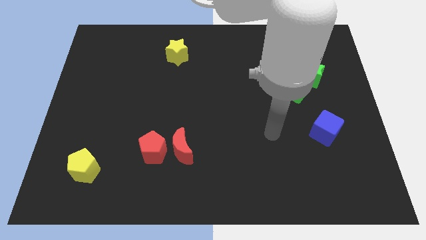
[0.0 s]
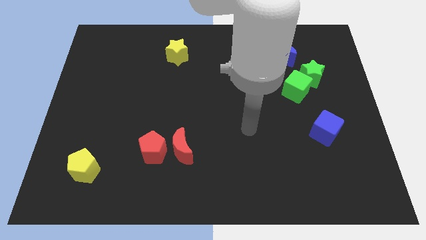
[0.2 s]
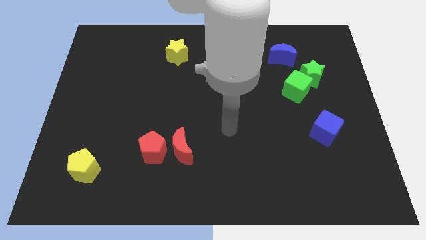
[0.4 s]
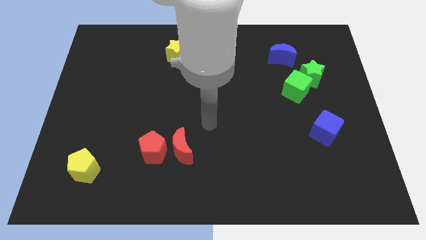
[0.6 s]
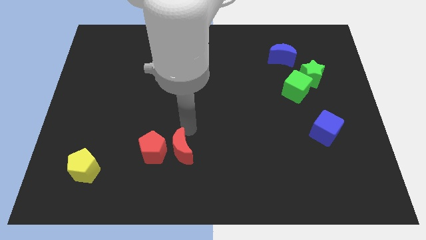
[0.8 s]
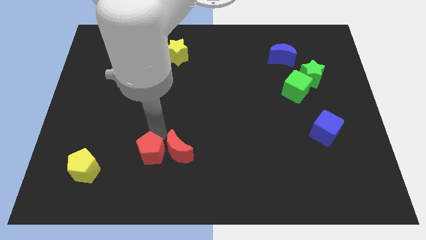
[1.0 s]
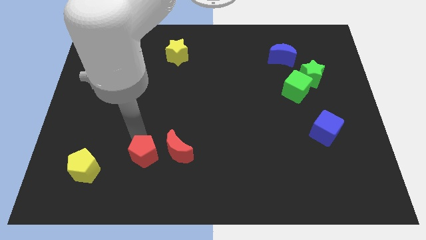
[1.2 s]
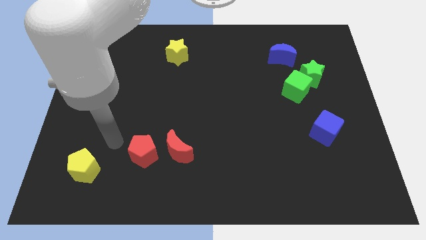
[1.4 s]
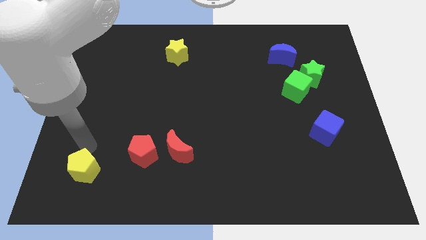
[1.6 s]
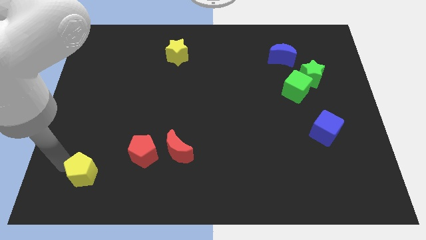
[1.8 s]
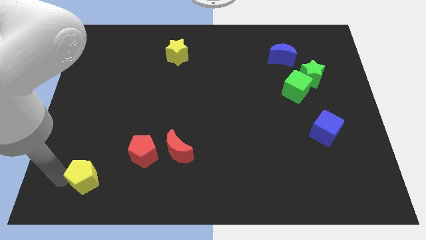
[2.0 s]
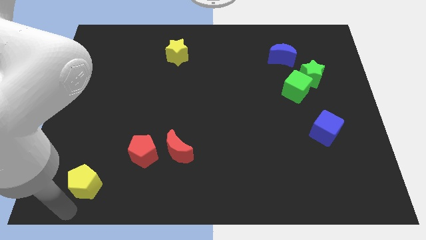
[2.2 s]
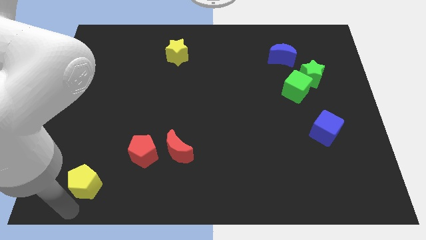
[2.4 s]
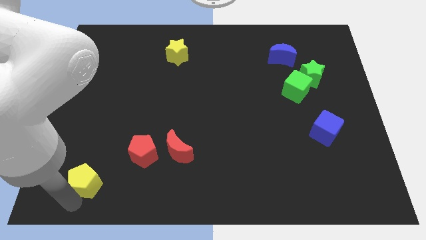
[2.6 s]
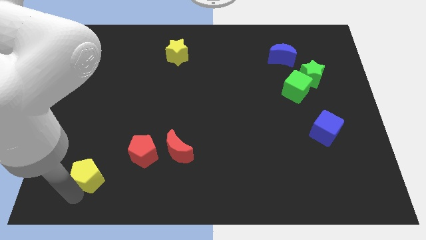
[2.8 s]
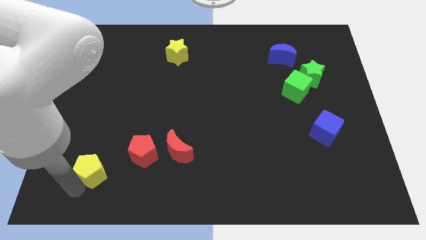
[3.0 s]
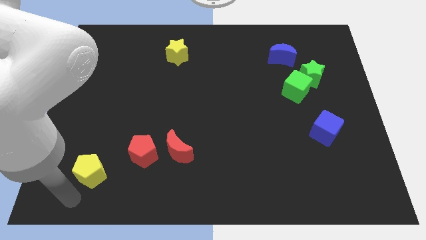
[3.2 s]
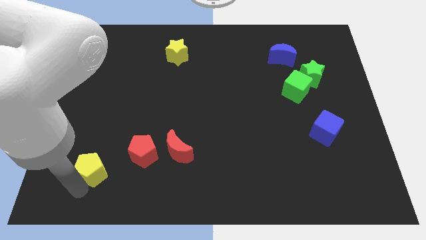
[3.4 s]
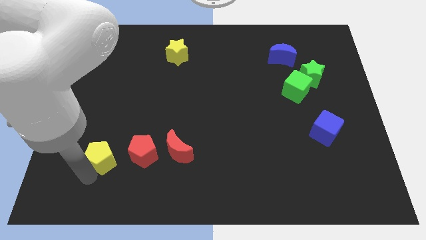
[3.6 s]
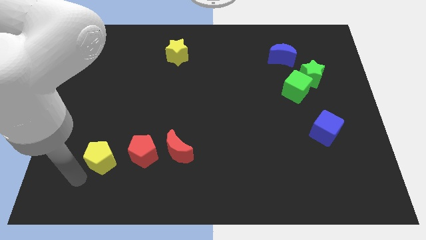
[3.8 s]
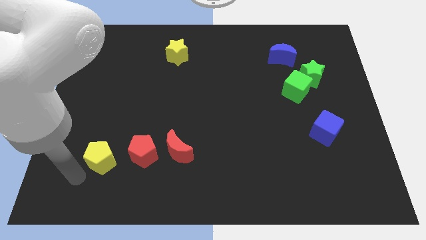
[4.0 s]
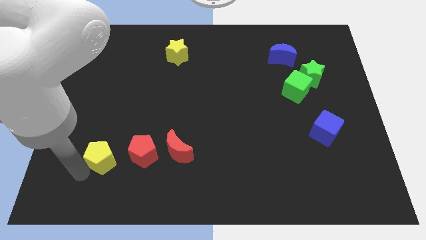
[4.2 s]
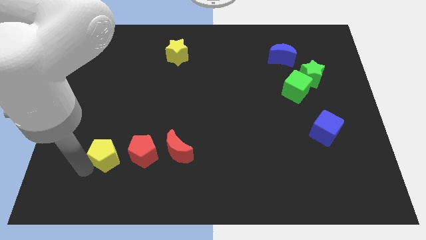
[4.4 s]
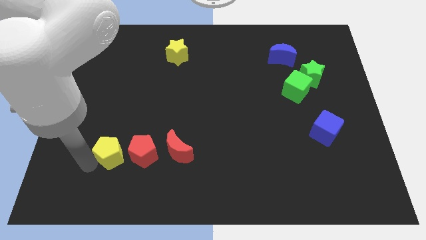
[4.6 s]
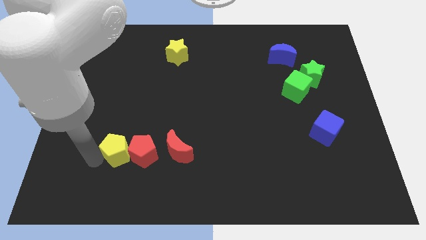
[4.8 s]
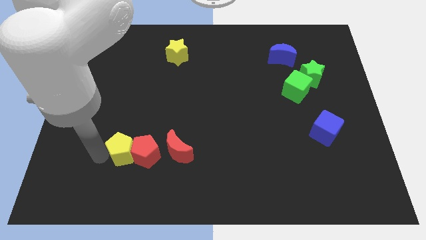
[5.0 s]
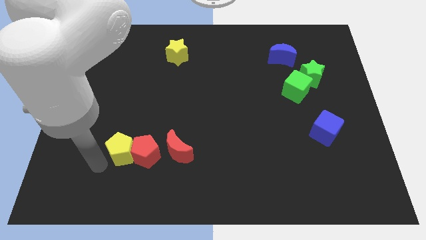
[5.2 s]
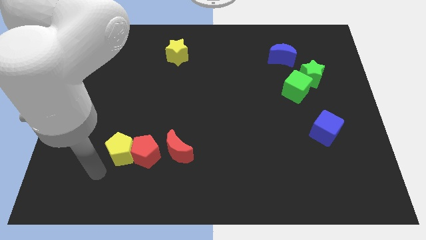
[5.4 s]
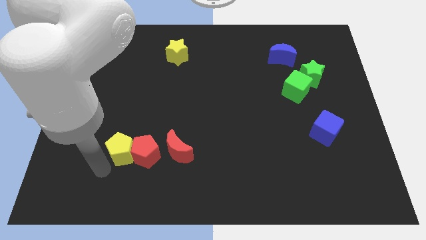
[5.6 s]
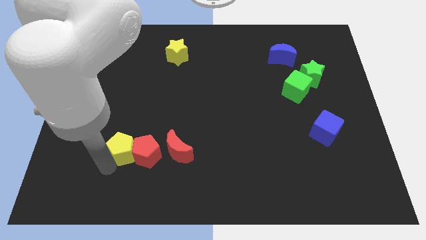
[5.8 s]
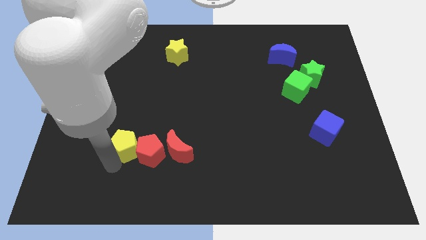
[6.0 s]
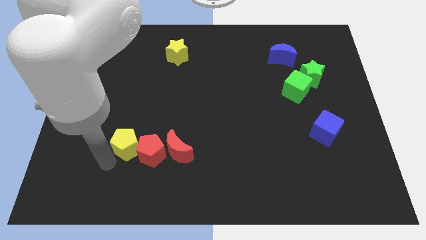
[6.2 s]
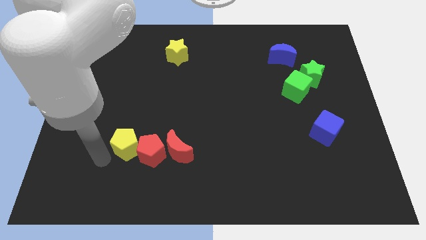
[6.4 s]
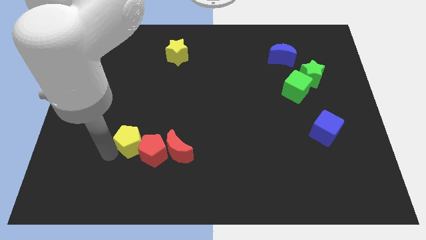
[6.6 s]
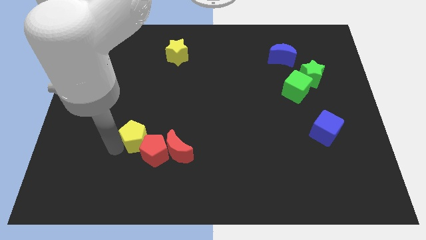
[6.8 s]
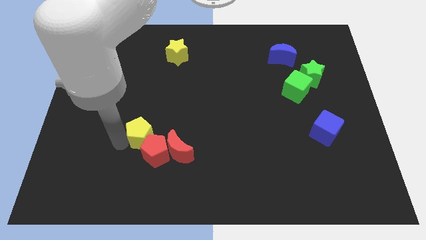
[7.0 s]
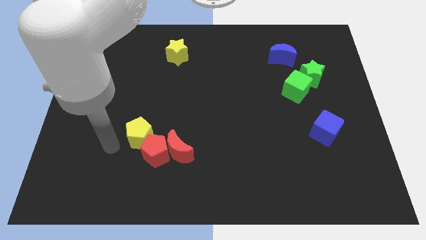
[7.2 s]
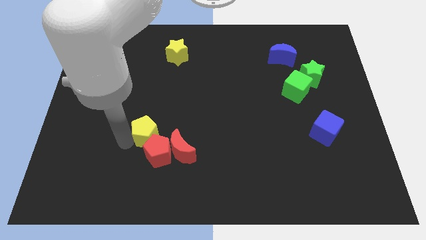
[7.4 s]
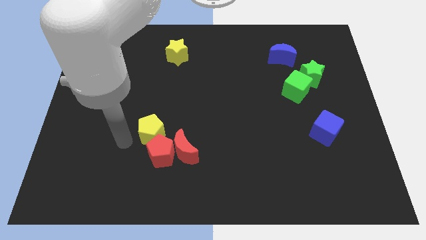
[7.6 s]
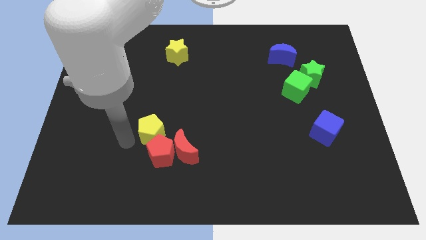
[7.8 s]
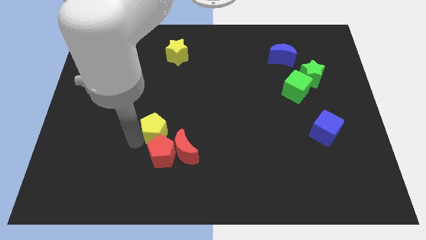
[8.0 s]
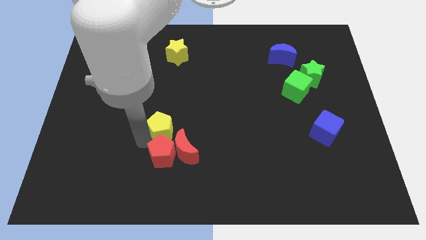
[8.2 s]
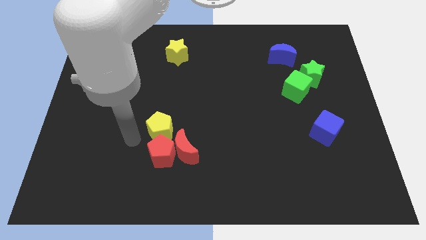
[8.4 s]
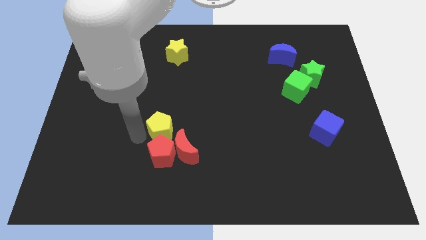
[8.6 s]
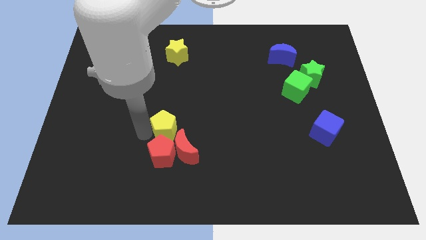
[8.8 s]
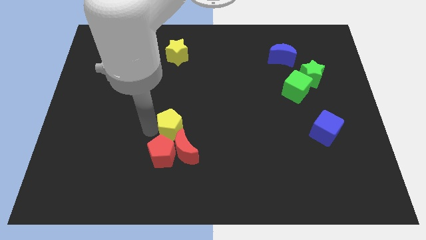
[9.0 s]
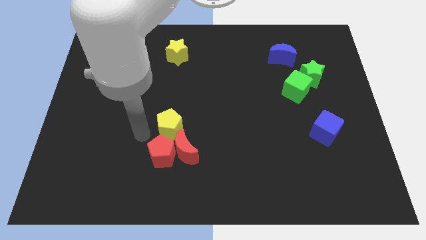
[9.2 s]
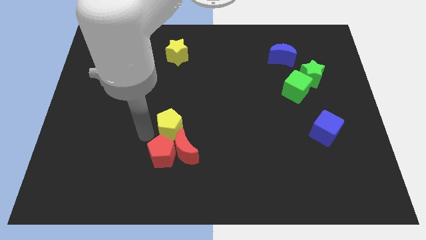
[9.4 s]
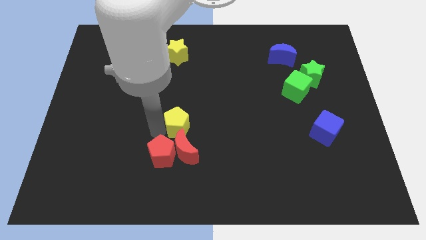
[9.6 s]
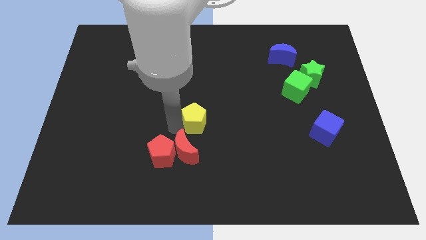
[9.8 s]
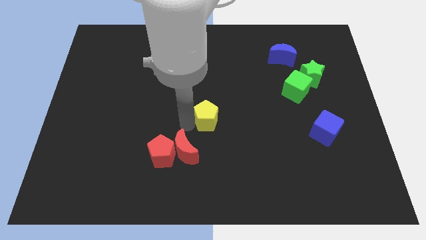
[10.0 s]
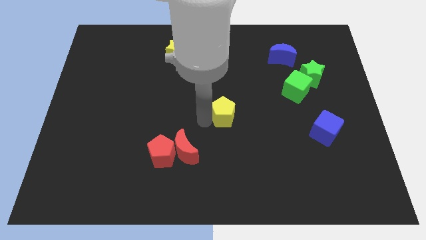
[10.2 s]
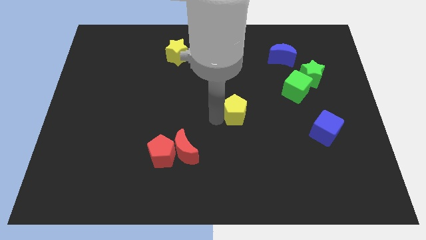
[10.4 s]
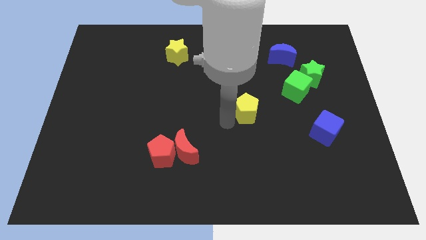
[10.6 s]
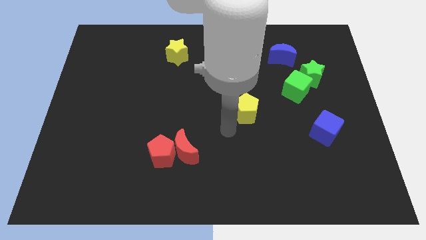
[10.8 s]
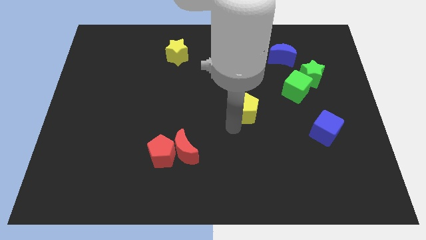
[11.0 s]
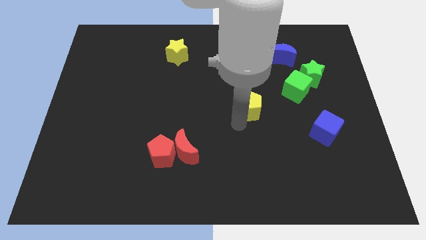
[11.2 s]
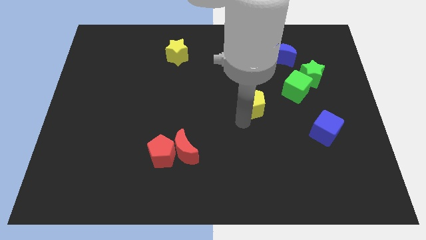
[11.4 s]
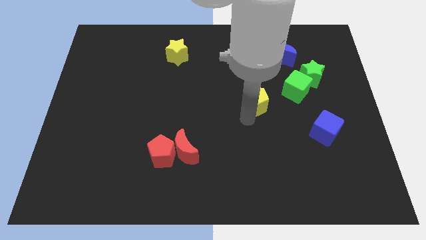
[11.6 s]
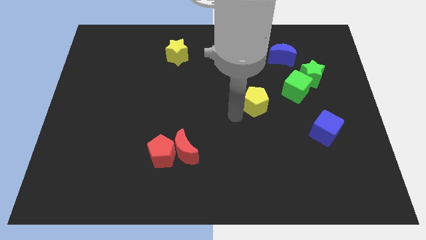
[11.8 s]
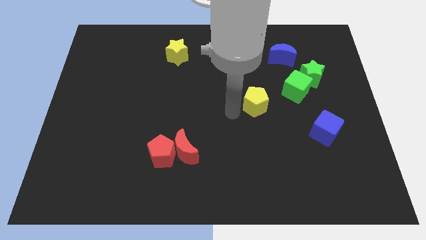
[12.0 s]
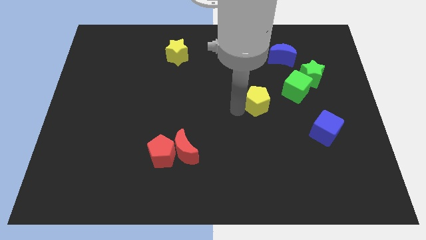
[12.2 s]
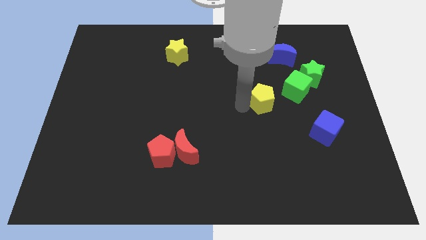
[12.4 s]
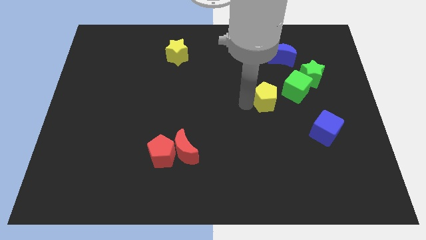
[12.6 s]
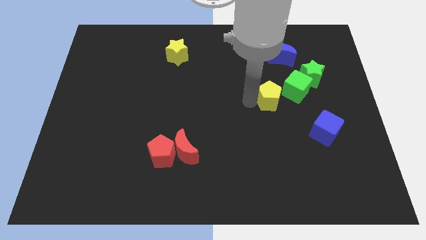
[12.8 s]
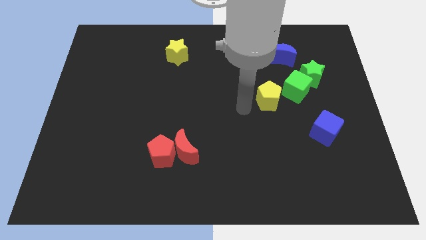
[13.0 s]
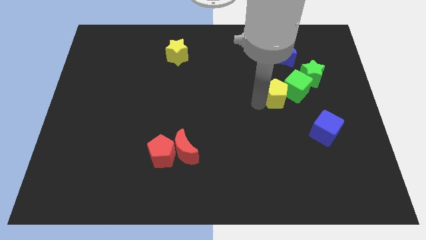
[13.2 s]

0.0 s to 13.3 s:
slide the yellow pentagon close to the green cube

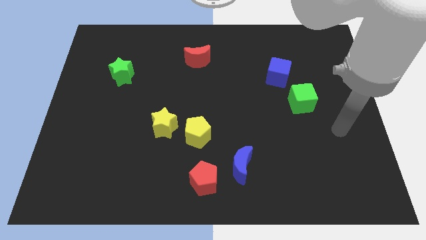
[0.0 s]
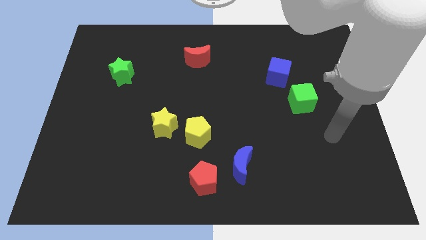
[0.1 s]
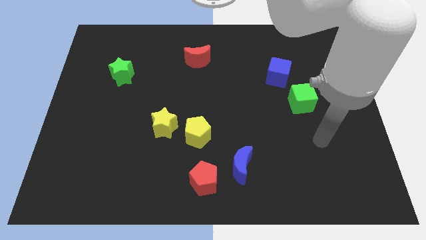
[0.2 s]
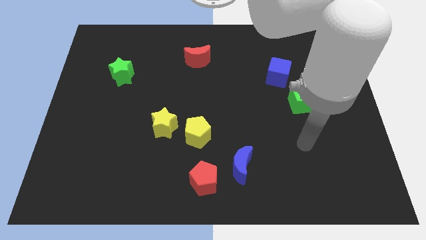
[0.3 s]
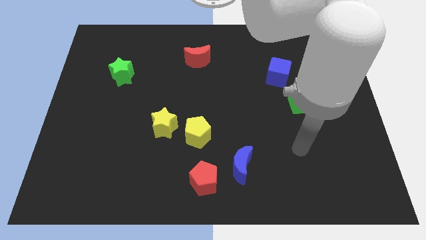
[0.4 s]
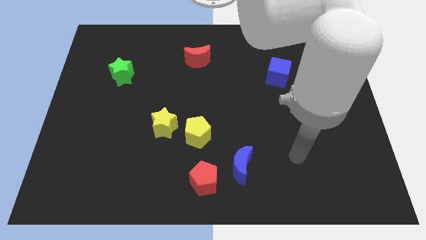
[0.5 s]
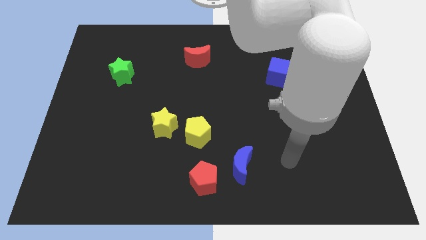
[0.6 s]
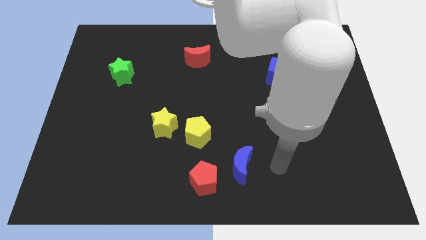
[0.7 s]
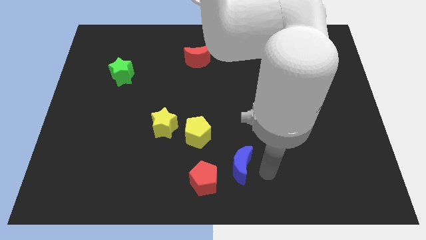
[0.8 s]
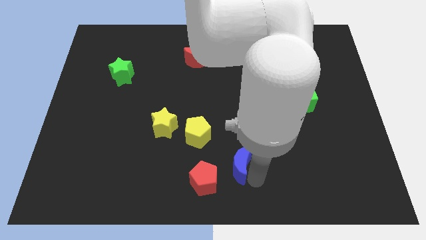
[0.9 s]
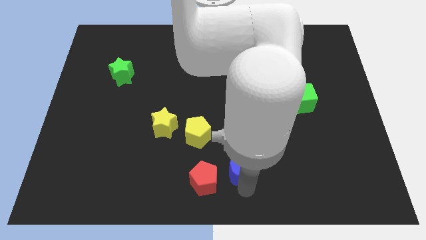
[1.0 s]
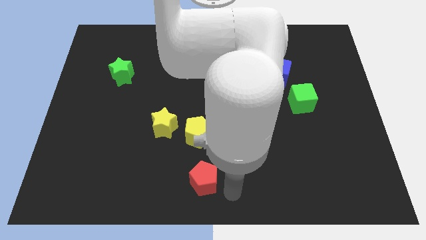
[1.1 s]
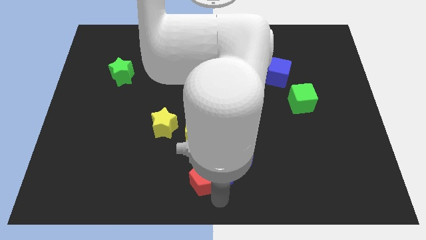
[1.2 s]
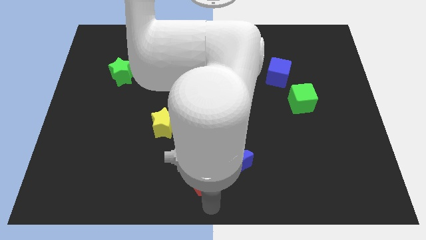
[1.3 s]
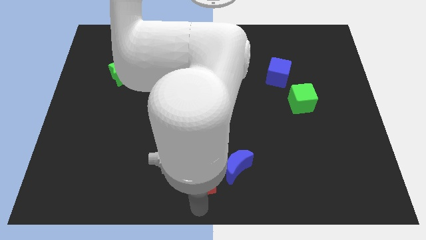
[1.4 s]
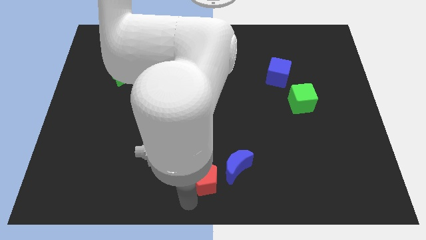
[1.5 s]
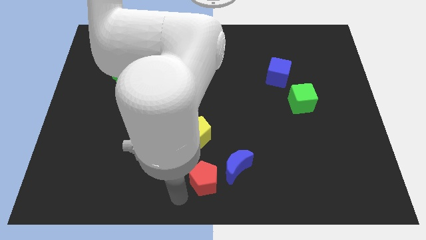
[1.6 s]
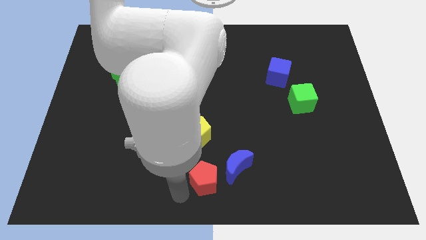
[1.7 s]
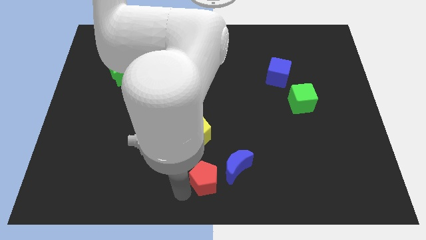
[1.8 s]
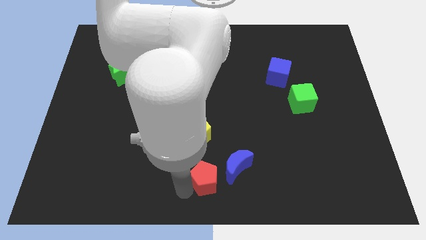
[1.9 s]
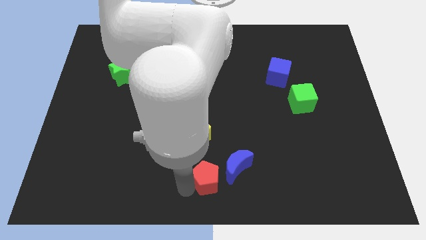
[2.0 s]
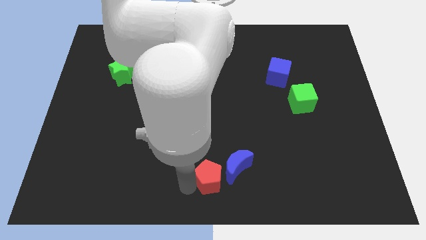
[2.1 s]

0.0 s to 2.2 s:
slide the red pentagon to the blue moon
